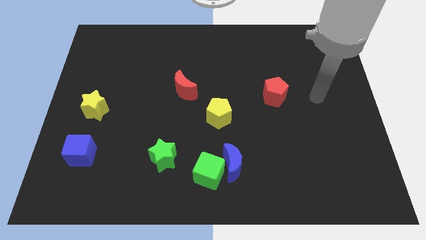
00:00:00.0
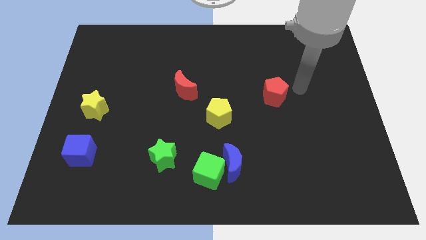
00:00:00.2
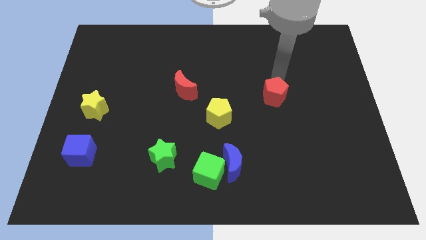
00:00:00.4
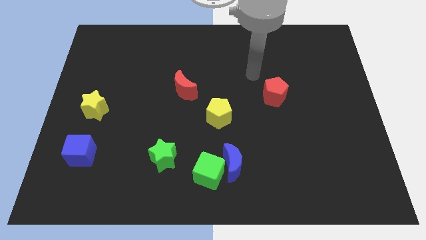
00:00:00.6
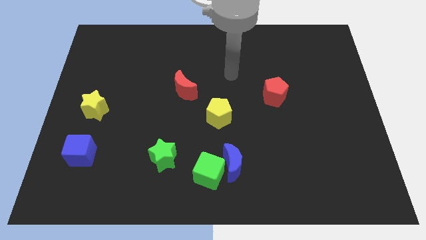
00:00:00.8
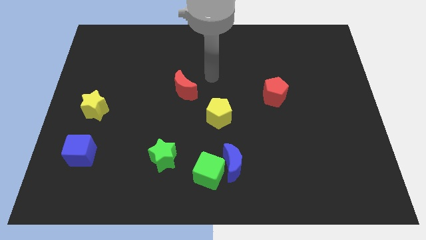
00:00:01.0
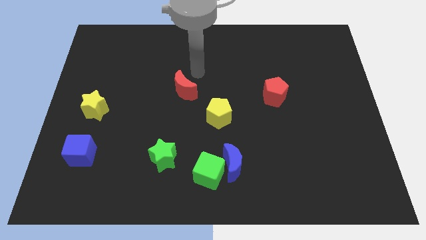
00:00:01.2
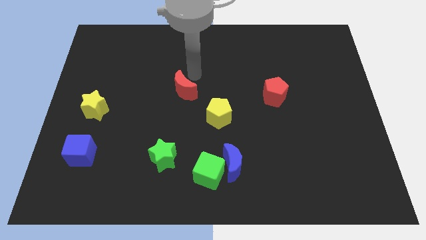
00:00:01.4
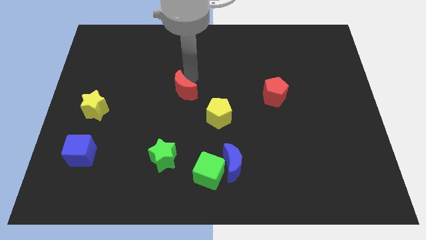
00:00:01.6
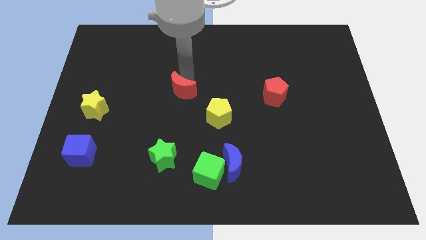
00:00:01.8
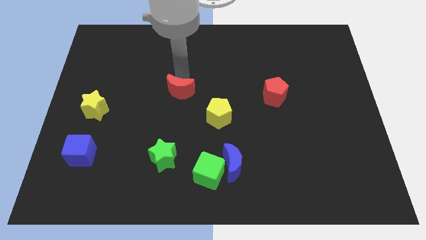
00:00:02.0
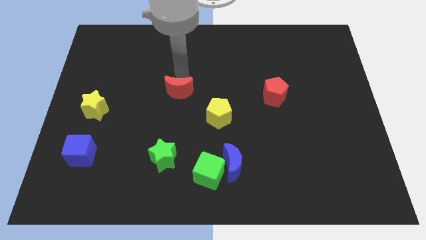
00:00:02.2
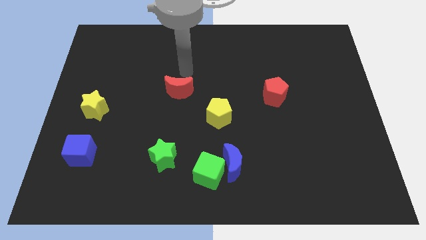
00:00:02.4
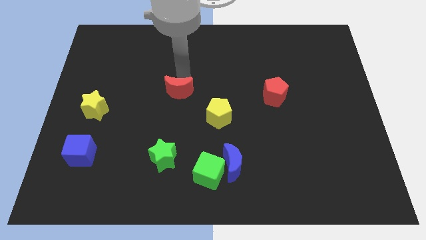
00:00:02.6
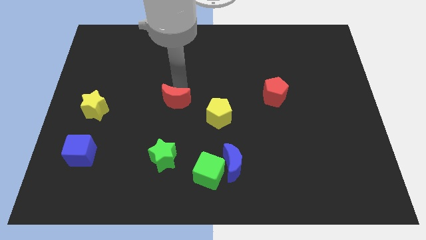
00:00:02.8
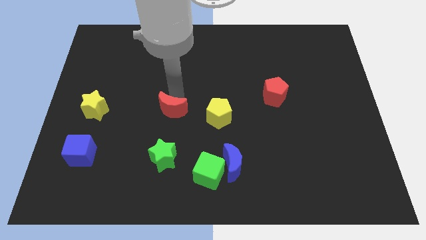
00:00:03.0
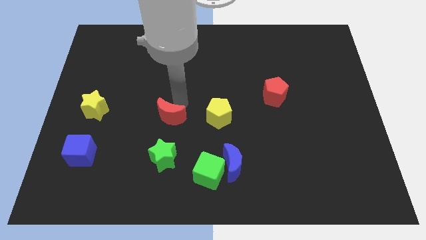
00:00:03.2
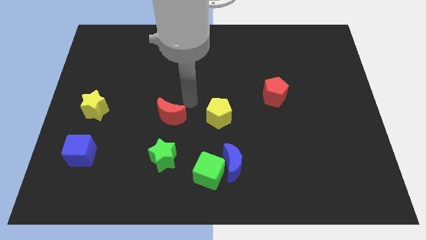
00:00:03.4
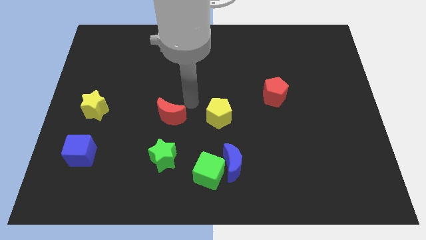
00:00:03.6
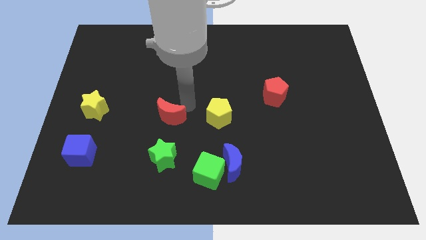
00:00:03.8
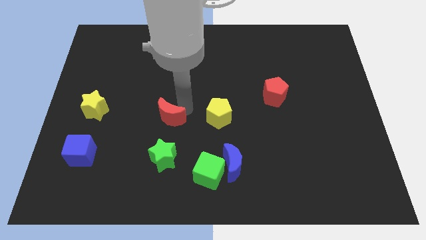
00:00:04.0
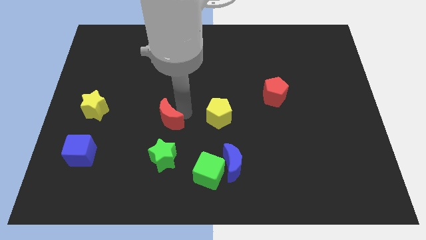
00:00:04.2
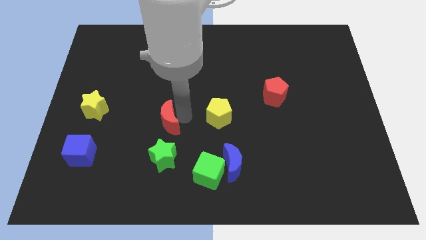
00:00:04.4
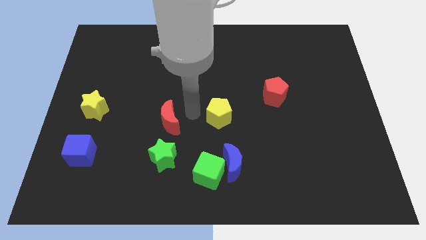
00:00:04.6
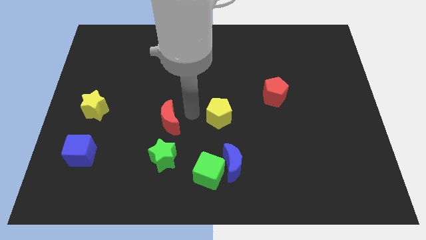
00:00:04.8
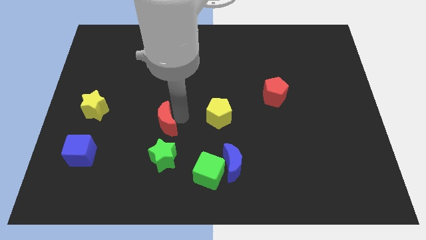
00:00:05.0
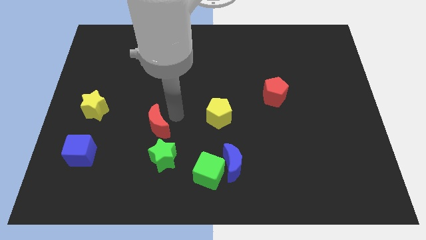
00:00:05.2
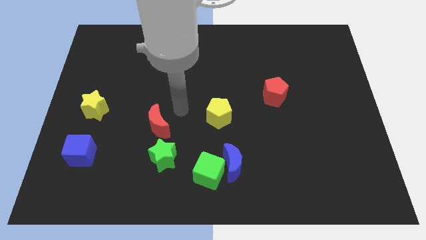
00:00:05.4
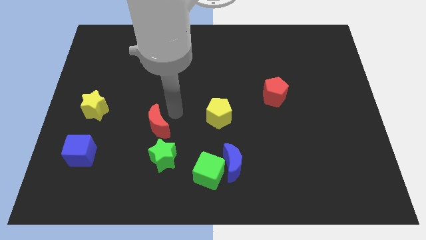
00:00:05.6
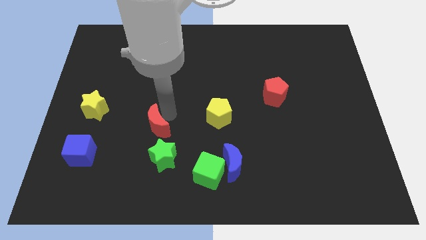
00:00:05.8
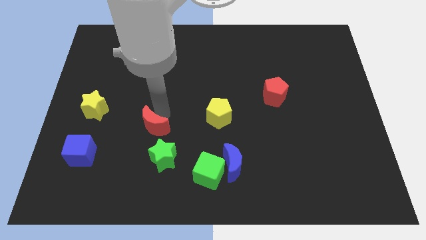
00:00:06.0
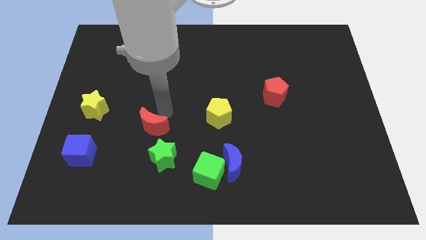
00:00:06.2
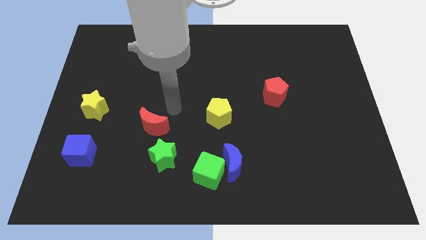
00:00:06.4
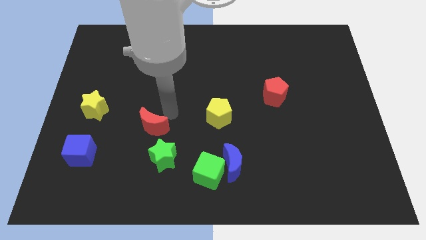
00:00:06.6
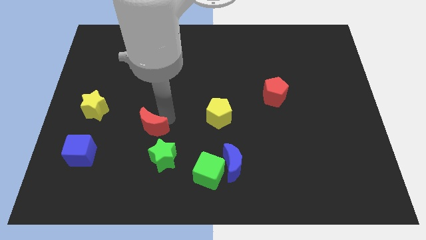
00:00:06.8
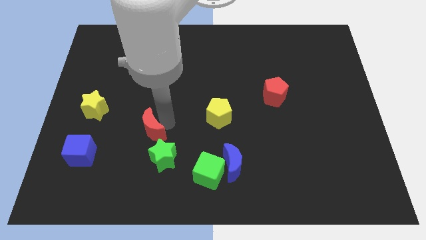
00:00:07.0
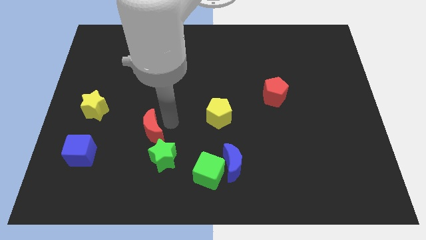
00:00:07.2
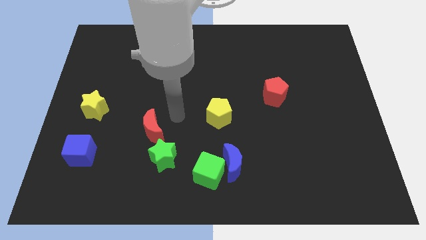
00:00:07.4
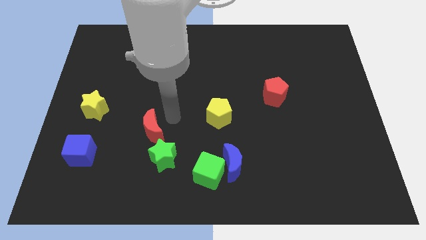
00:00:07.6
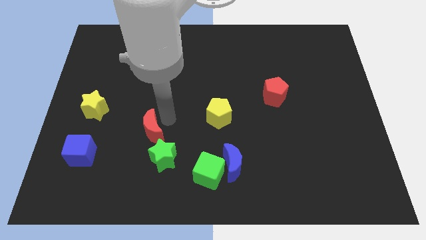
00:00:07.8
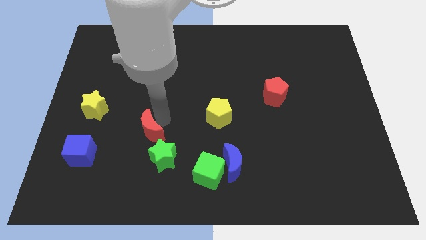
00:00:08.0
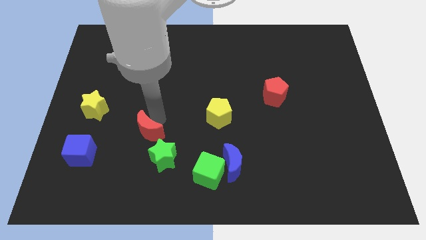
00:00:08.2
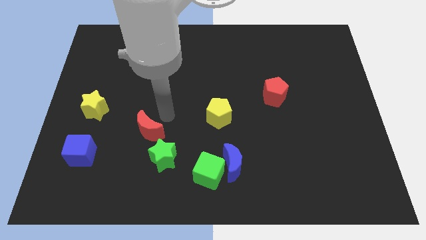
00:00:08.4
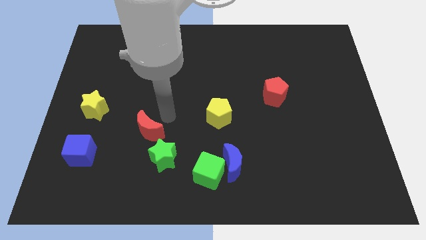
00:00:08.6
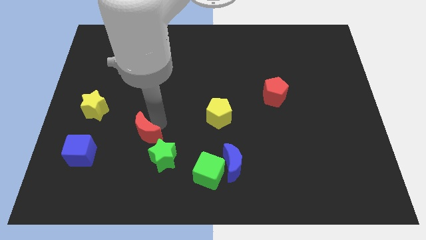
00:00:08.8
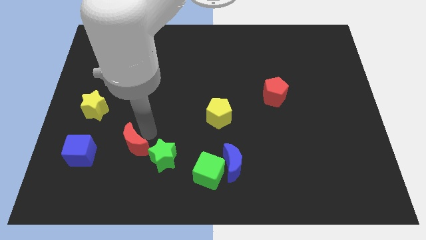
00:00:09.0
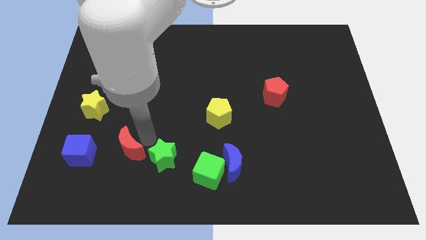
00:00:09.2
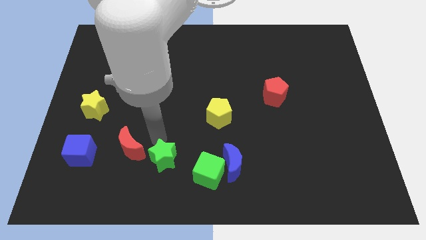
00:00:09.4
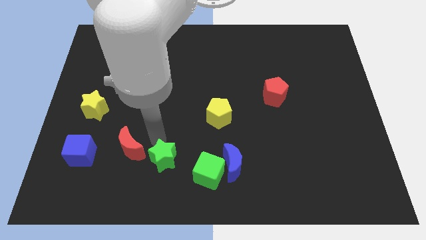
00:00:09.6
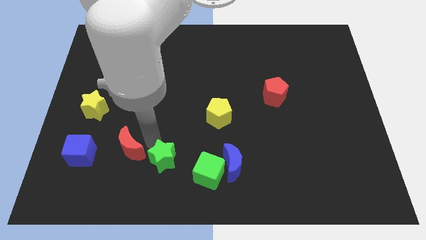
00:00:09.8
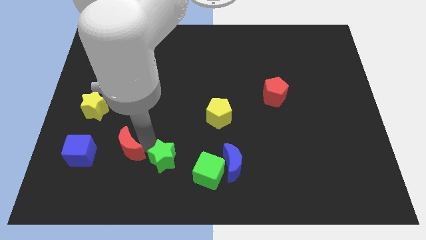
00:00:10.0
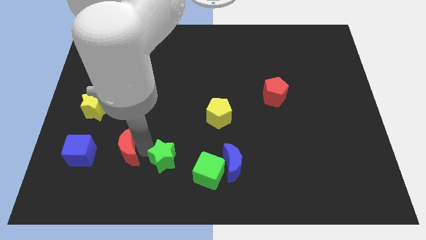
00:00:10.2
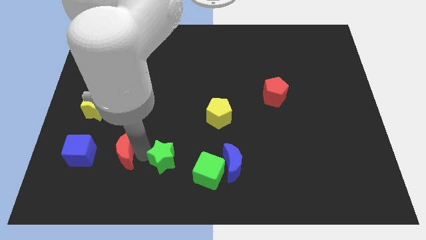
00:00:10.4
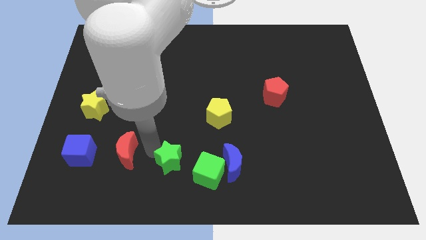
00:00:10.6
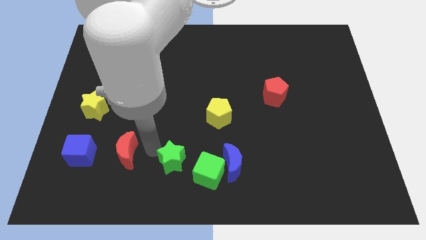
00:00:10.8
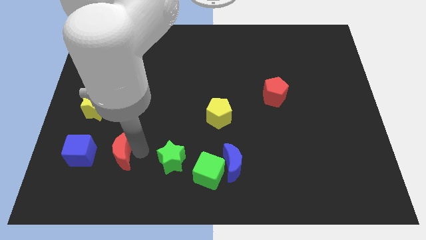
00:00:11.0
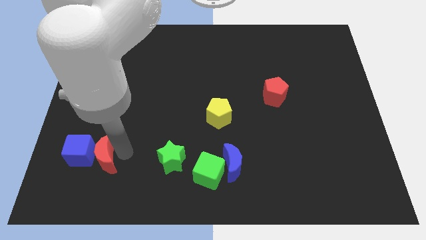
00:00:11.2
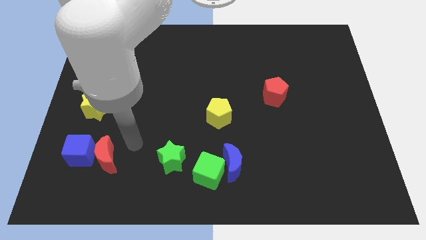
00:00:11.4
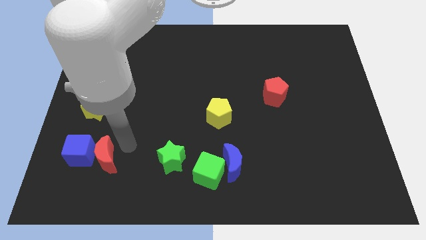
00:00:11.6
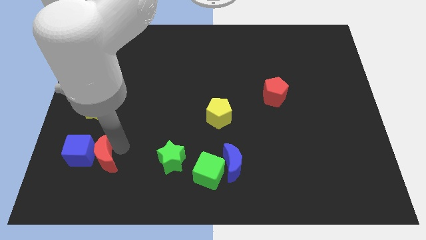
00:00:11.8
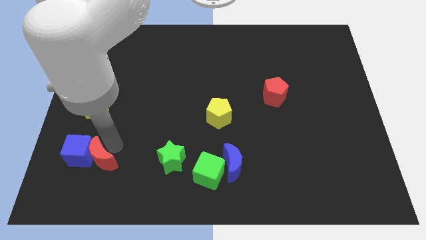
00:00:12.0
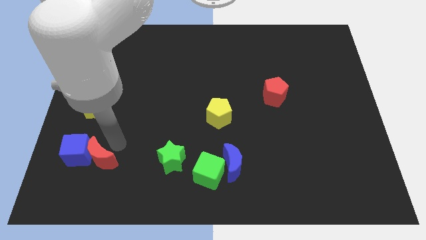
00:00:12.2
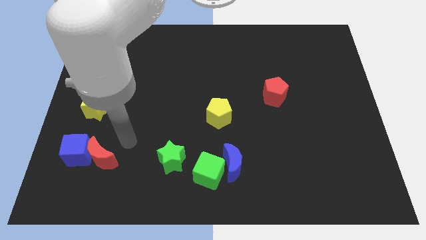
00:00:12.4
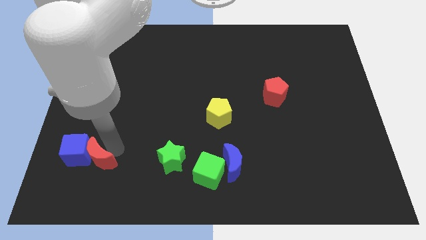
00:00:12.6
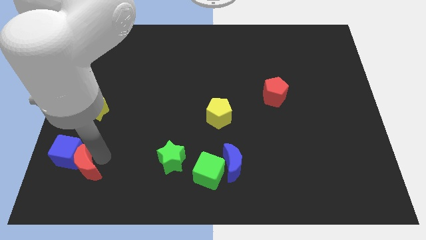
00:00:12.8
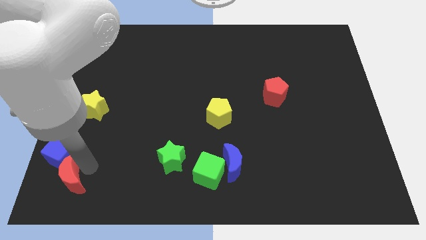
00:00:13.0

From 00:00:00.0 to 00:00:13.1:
move the red moon to the bottom left corner
